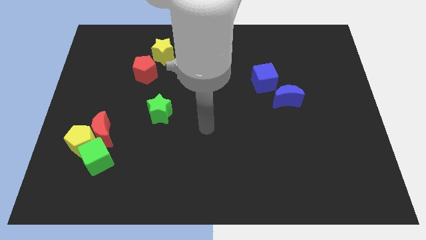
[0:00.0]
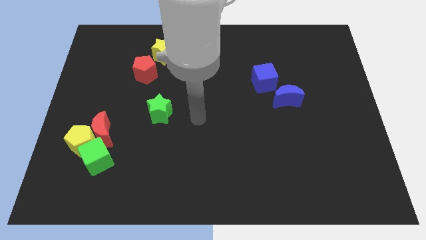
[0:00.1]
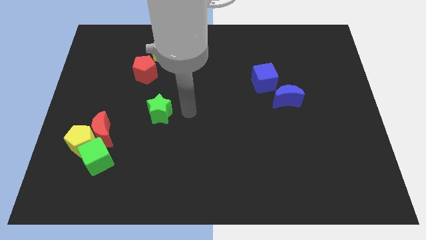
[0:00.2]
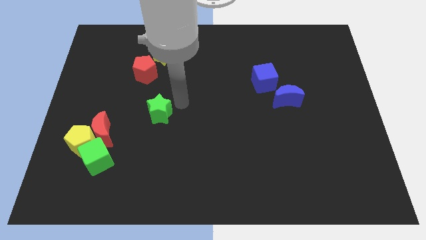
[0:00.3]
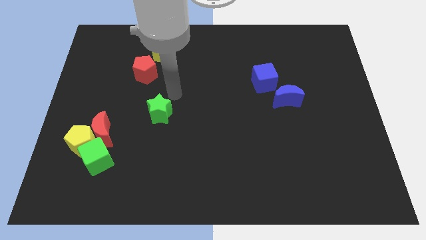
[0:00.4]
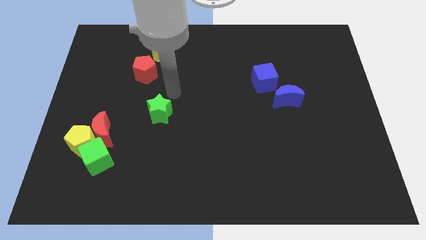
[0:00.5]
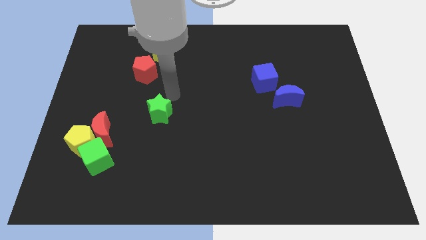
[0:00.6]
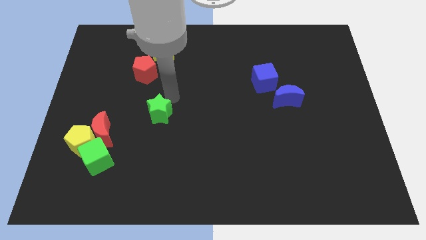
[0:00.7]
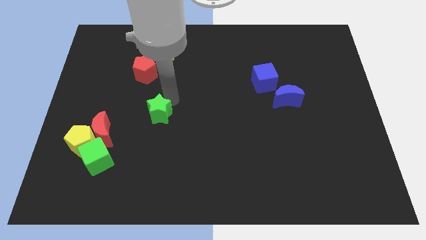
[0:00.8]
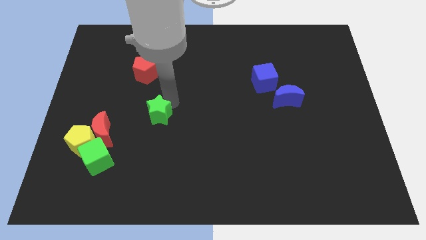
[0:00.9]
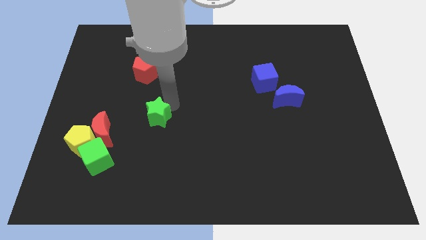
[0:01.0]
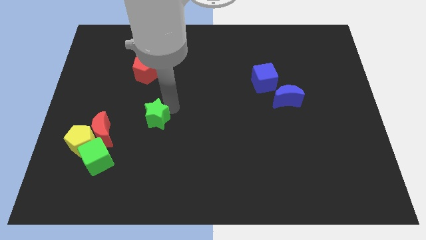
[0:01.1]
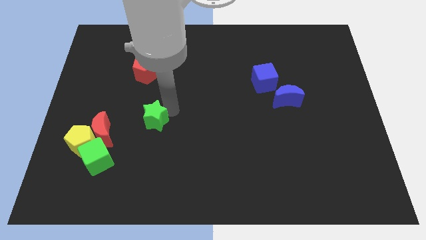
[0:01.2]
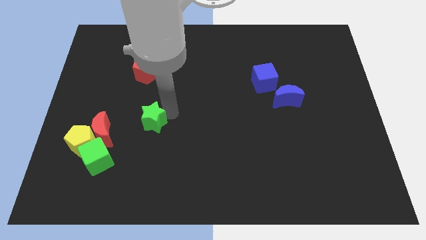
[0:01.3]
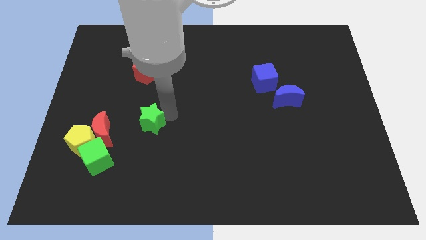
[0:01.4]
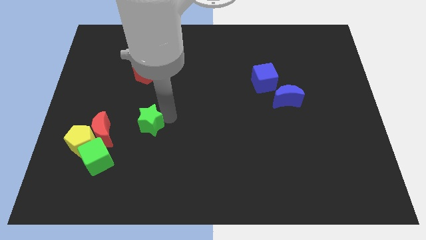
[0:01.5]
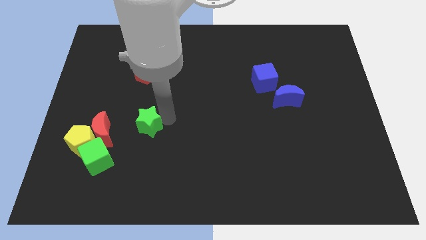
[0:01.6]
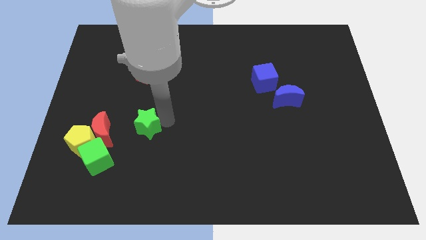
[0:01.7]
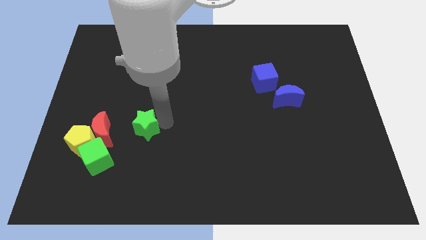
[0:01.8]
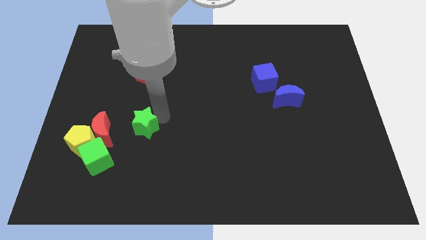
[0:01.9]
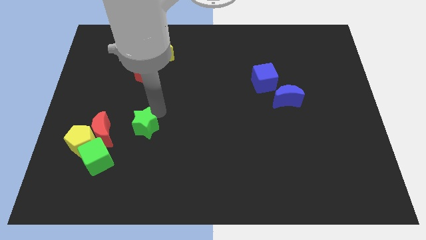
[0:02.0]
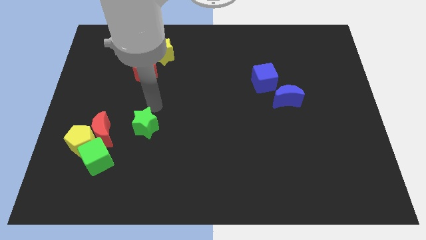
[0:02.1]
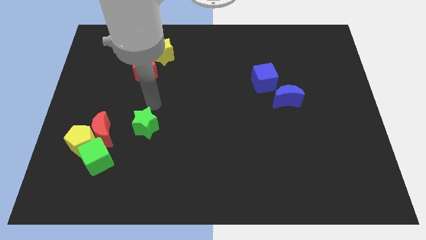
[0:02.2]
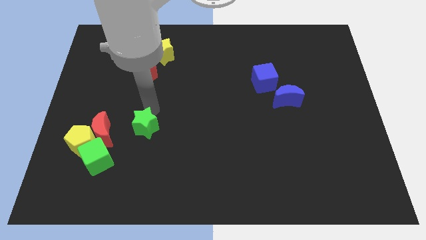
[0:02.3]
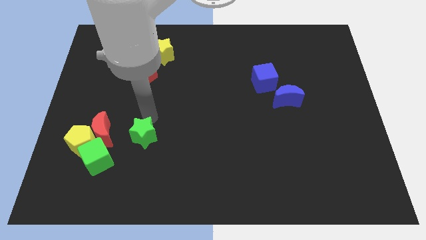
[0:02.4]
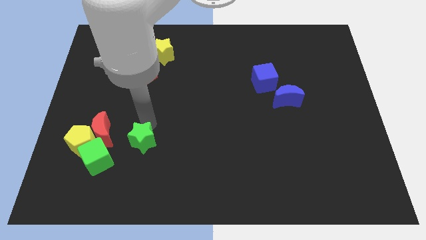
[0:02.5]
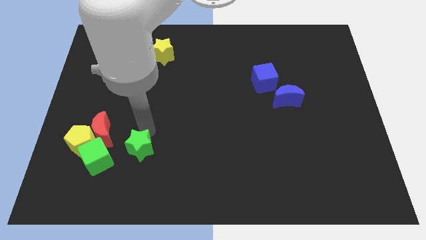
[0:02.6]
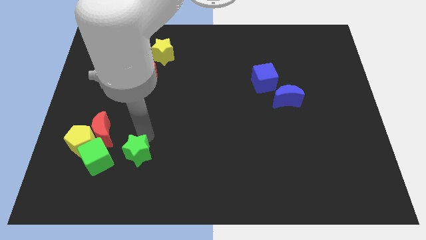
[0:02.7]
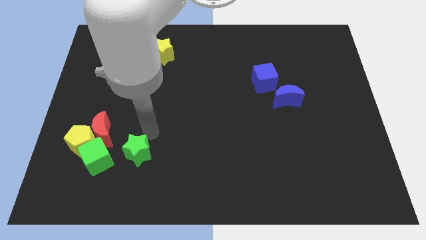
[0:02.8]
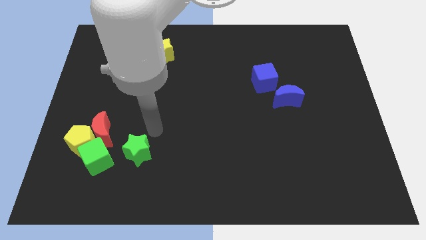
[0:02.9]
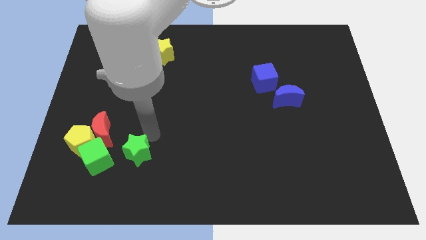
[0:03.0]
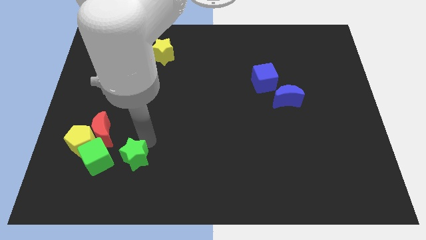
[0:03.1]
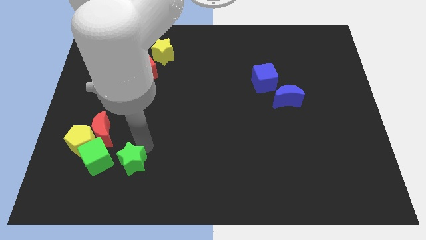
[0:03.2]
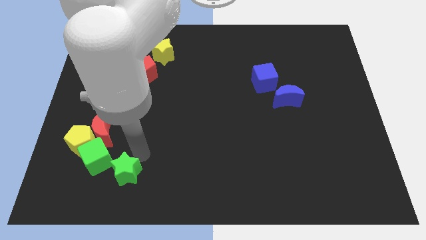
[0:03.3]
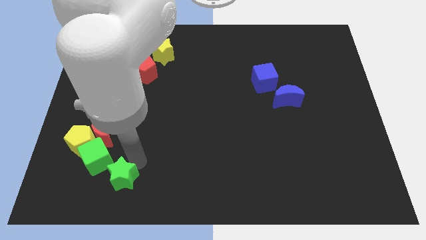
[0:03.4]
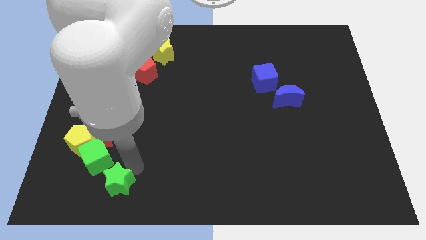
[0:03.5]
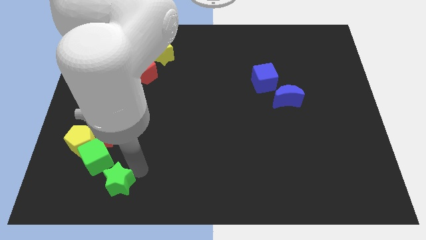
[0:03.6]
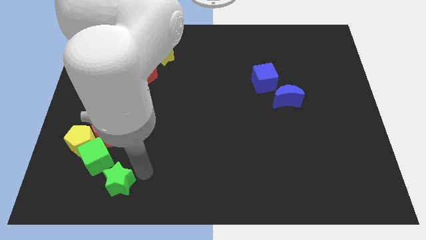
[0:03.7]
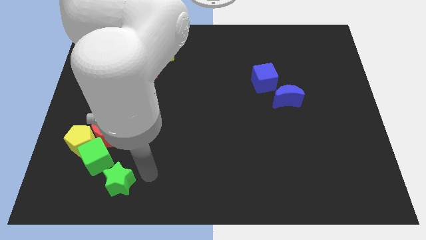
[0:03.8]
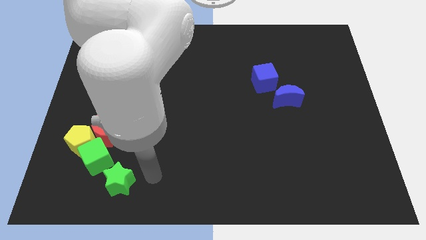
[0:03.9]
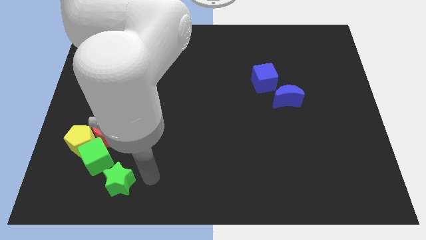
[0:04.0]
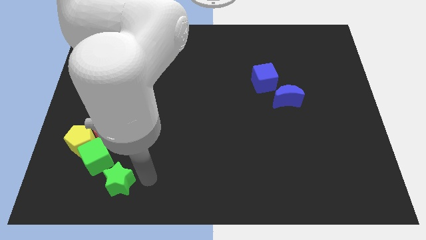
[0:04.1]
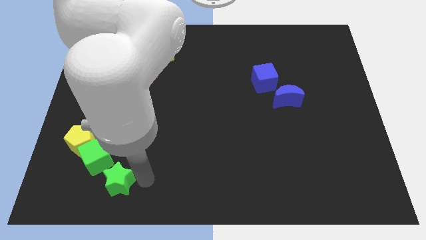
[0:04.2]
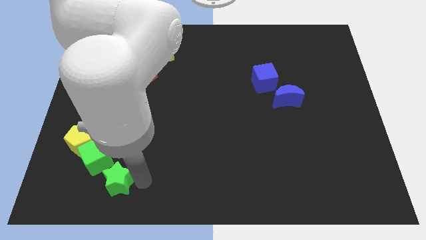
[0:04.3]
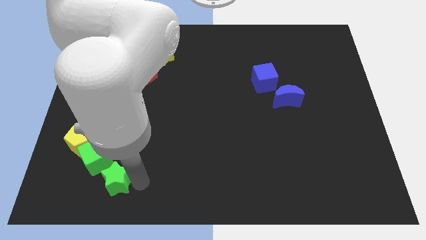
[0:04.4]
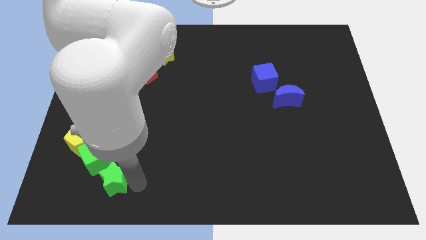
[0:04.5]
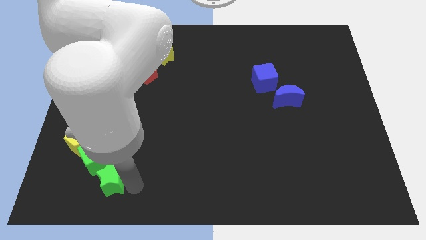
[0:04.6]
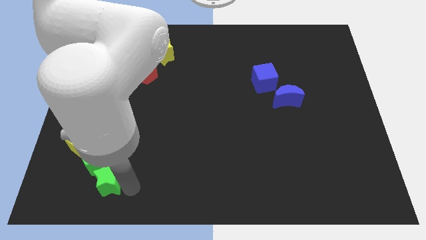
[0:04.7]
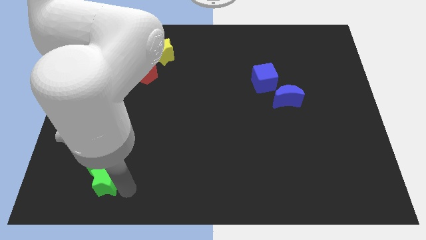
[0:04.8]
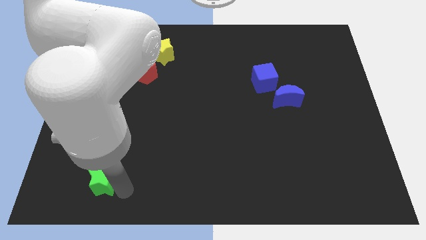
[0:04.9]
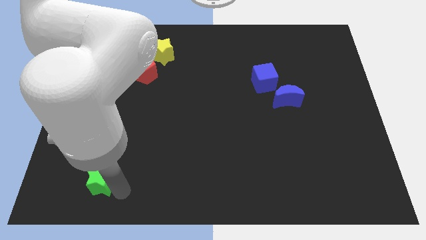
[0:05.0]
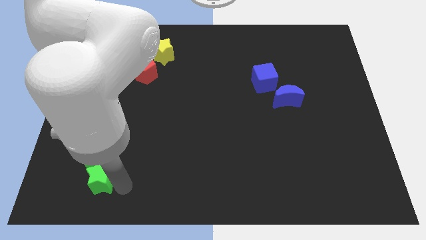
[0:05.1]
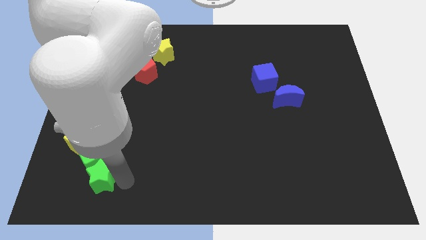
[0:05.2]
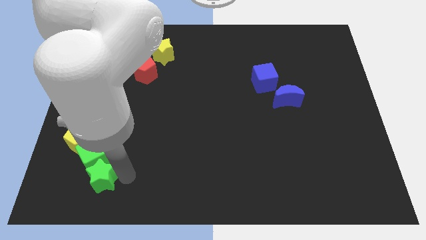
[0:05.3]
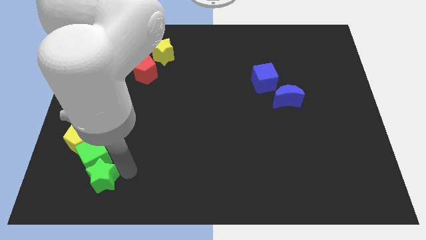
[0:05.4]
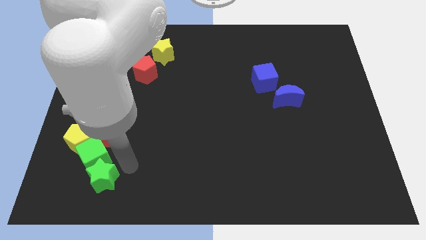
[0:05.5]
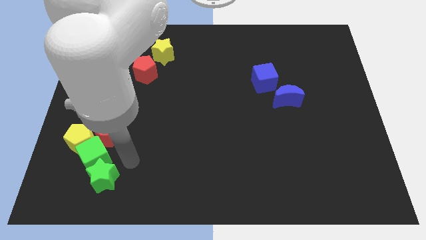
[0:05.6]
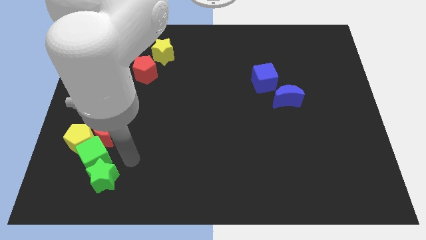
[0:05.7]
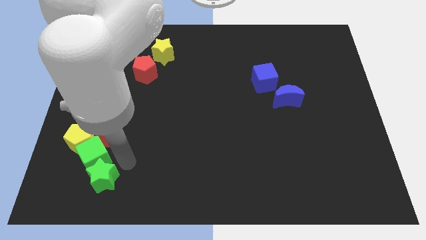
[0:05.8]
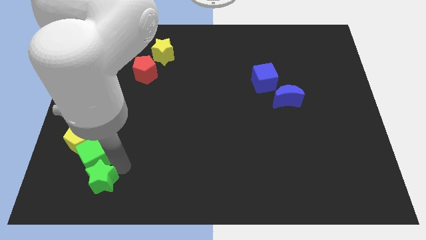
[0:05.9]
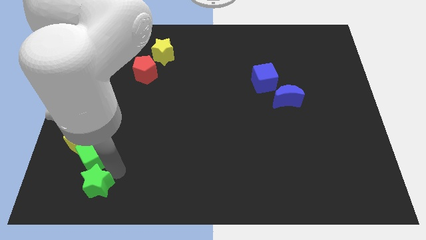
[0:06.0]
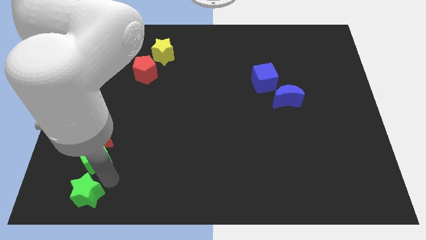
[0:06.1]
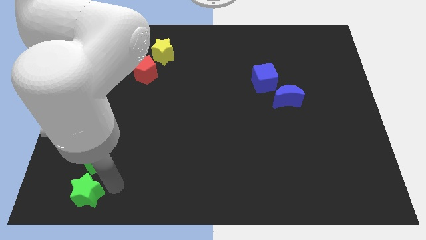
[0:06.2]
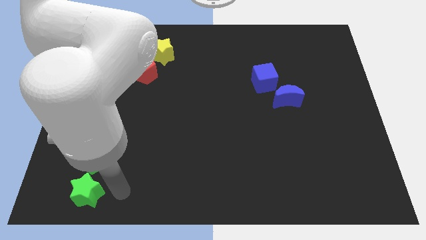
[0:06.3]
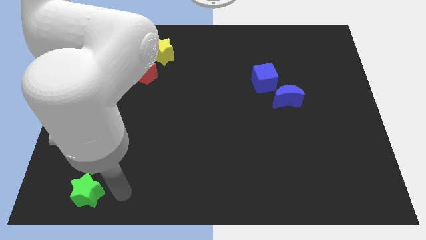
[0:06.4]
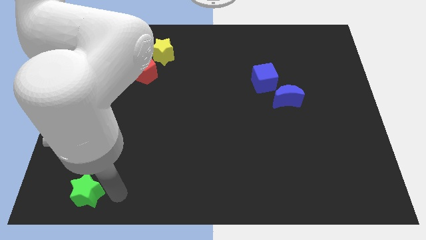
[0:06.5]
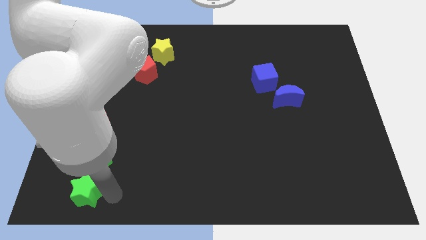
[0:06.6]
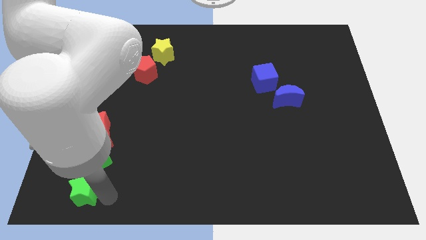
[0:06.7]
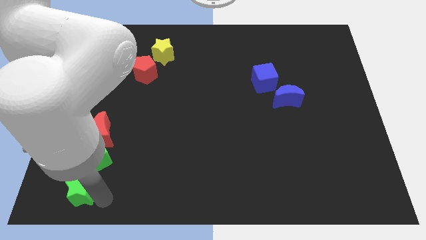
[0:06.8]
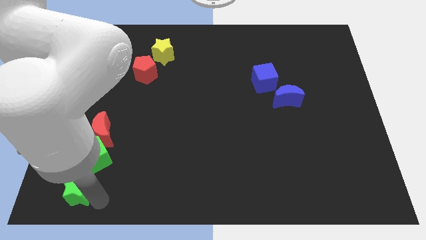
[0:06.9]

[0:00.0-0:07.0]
slide the green star to the bottom left

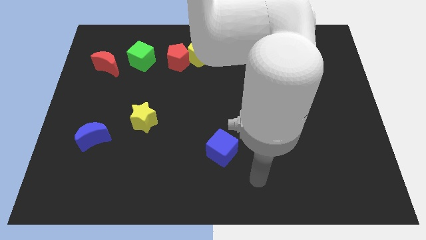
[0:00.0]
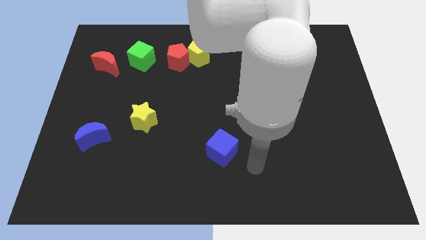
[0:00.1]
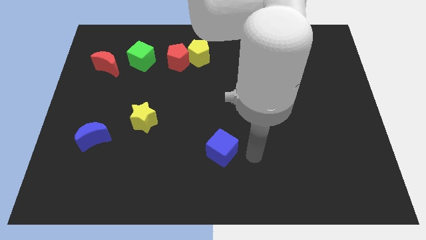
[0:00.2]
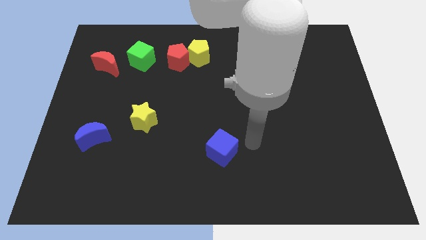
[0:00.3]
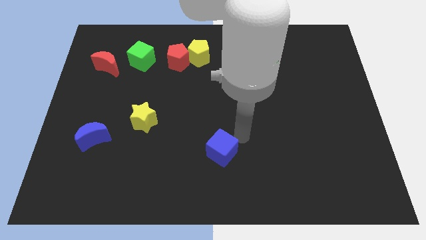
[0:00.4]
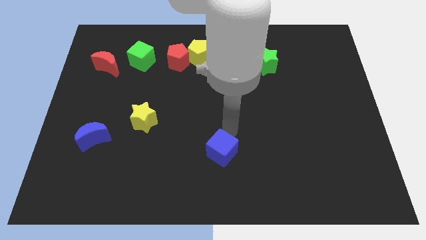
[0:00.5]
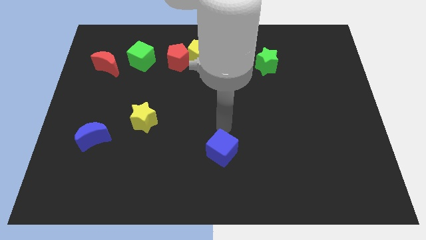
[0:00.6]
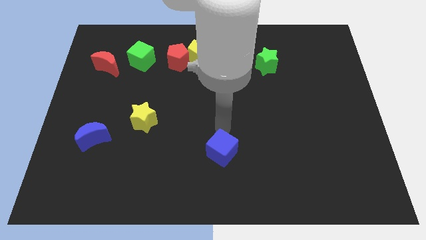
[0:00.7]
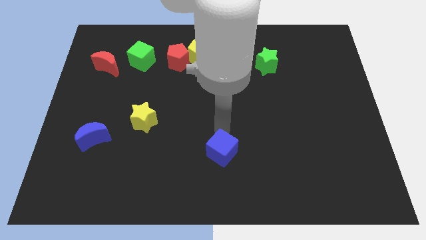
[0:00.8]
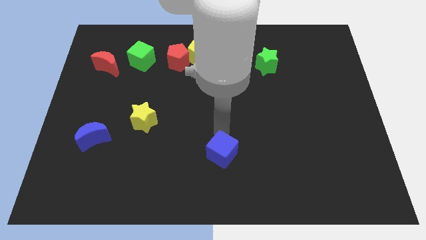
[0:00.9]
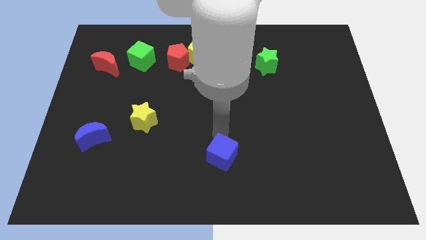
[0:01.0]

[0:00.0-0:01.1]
put the blue cube to the bottom
